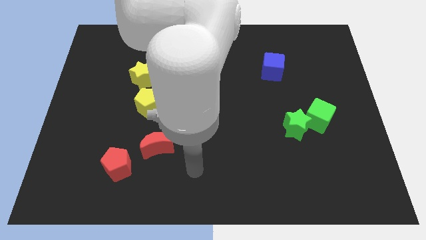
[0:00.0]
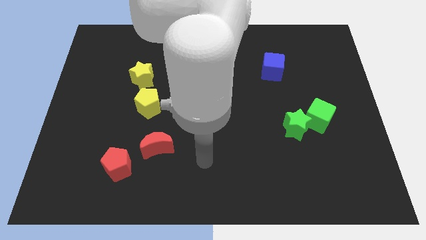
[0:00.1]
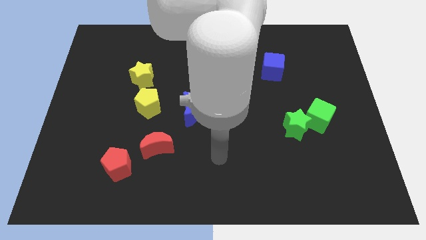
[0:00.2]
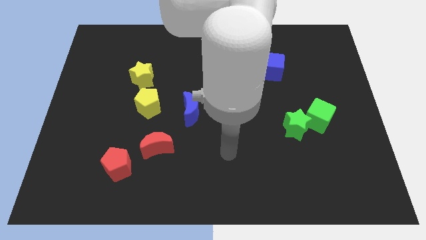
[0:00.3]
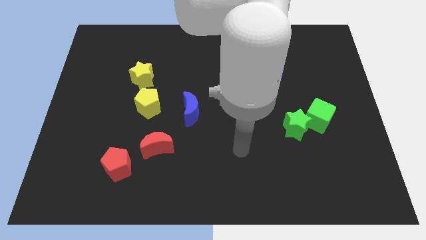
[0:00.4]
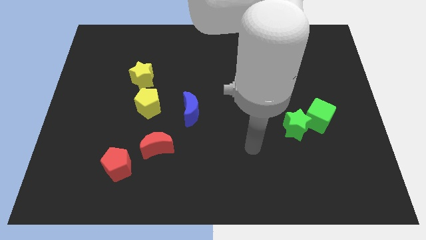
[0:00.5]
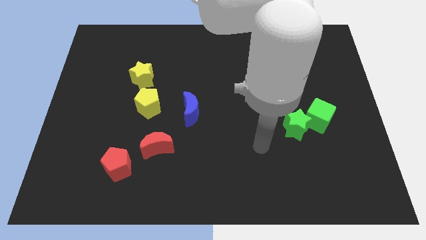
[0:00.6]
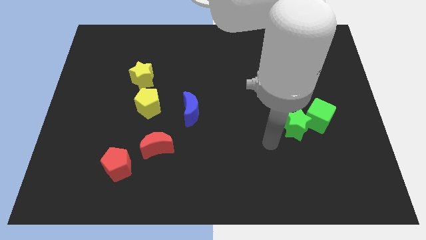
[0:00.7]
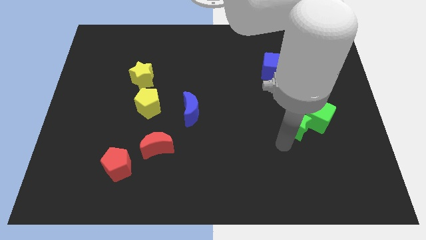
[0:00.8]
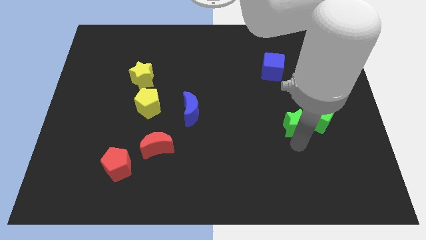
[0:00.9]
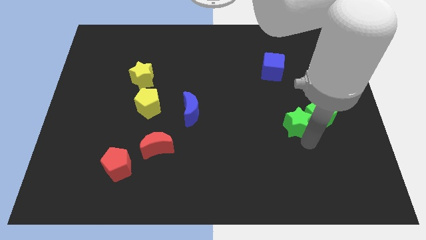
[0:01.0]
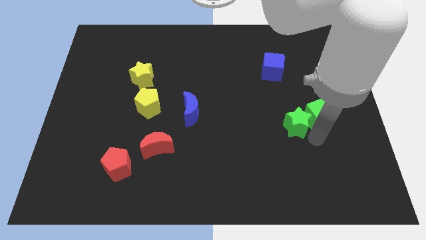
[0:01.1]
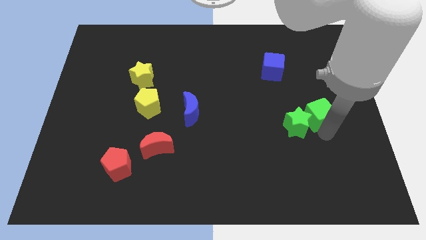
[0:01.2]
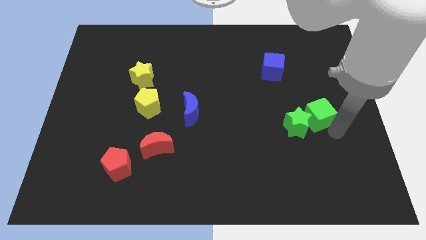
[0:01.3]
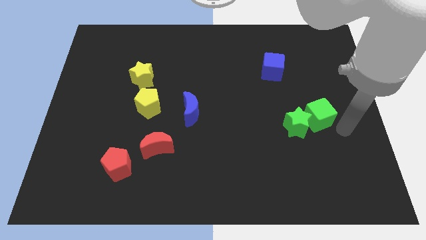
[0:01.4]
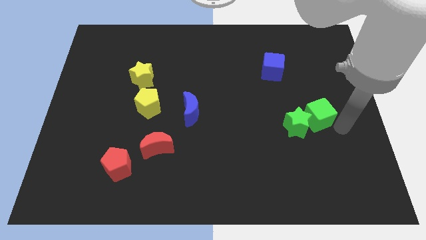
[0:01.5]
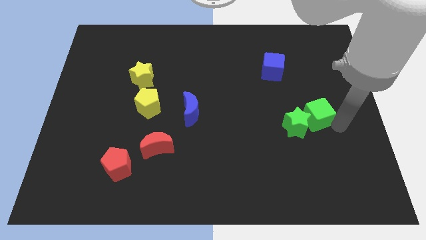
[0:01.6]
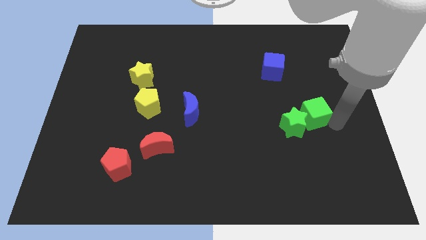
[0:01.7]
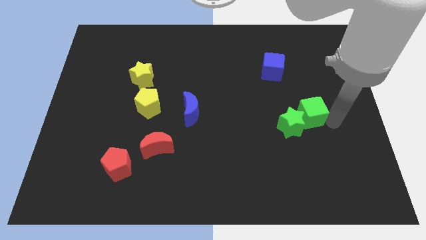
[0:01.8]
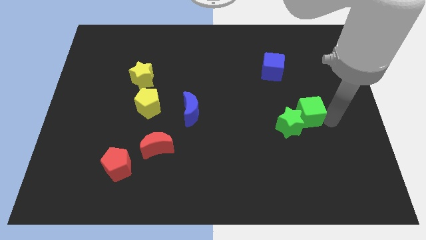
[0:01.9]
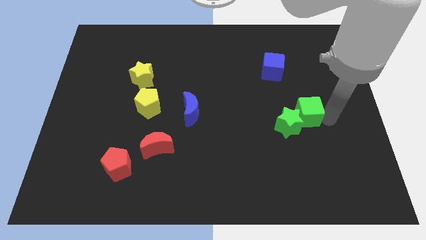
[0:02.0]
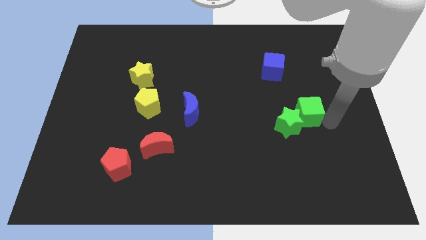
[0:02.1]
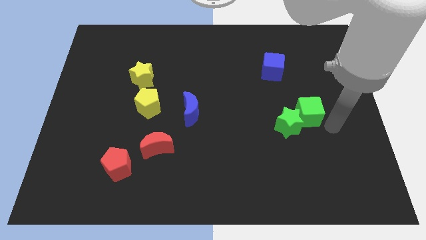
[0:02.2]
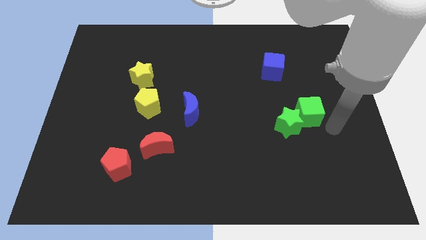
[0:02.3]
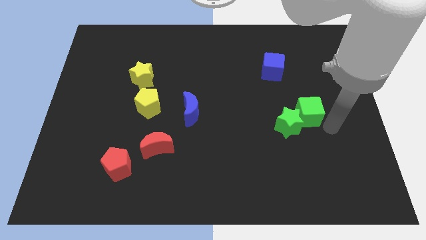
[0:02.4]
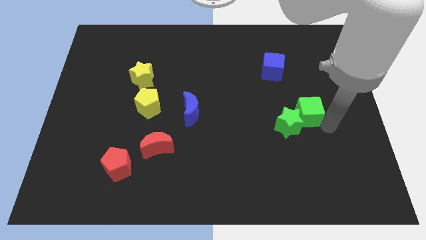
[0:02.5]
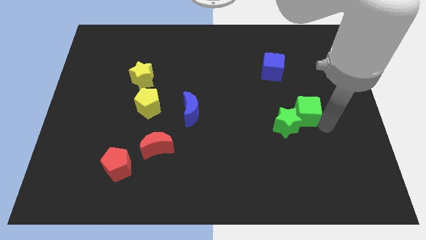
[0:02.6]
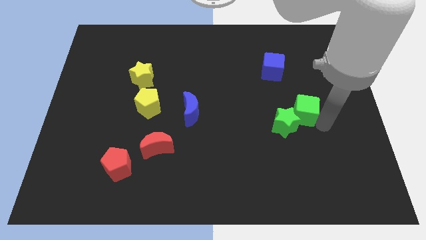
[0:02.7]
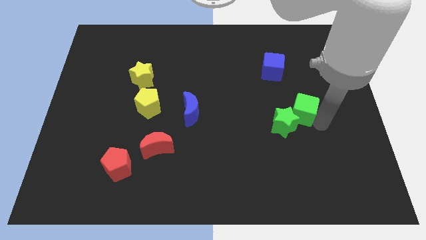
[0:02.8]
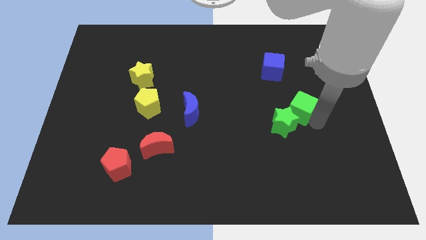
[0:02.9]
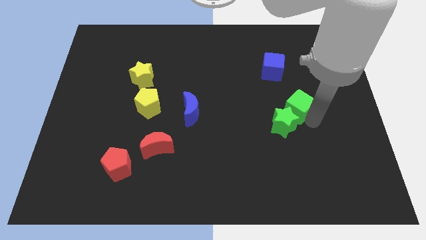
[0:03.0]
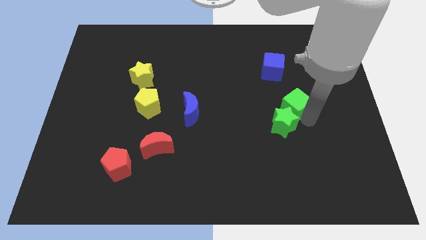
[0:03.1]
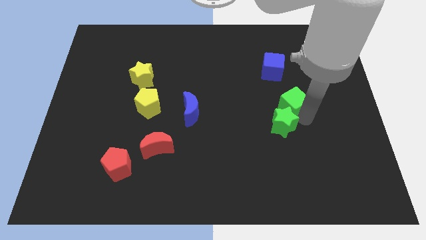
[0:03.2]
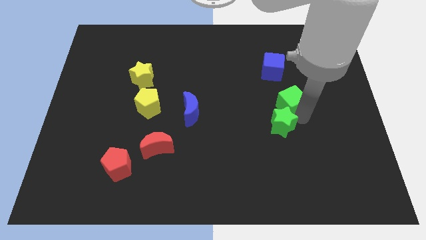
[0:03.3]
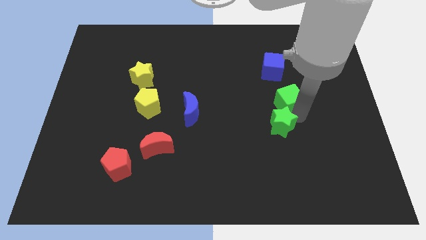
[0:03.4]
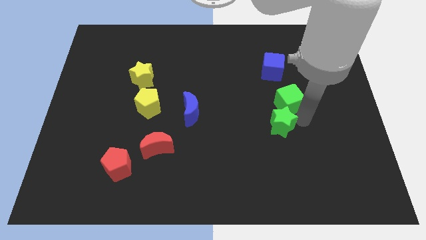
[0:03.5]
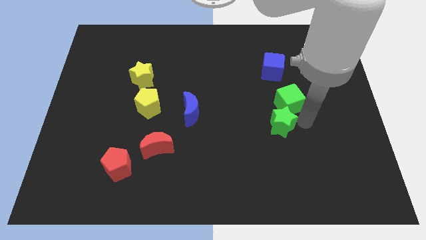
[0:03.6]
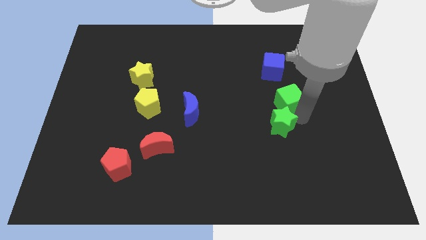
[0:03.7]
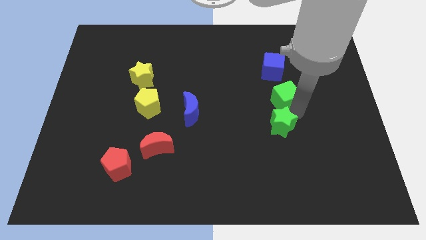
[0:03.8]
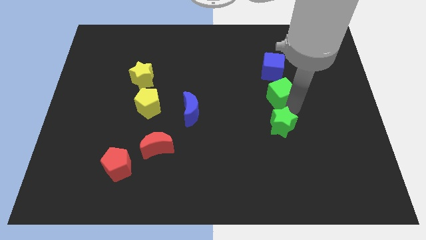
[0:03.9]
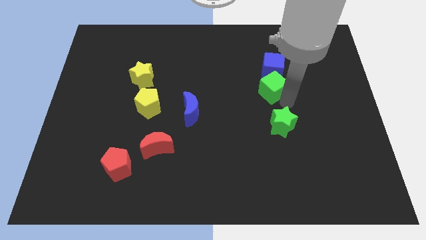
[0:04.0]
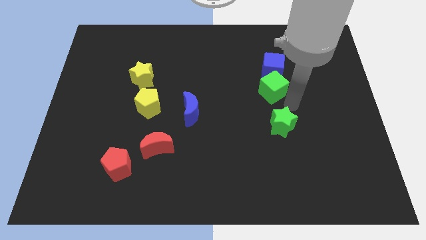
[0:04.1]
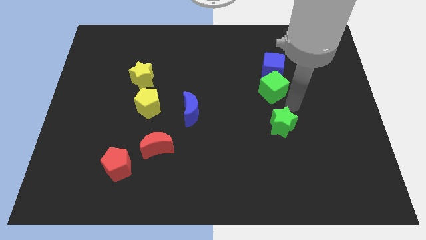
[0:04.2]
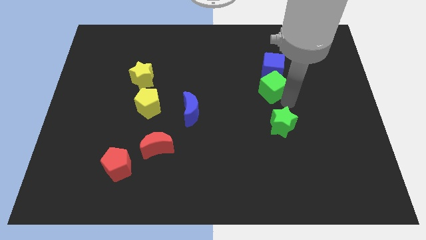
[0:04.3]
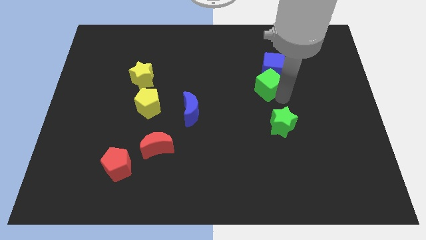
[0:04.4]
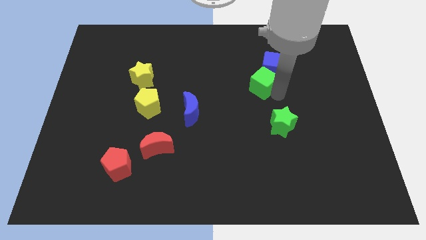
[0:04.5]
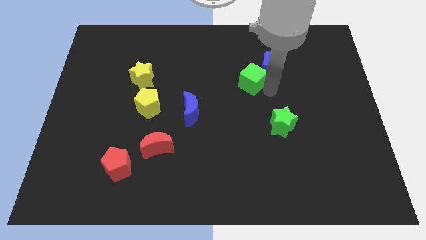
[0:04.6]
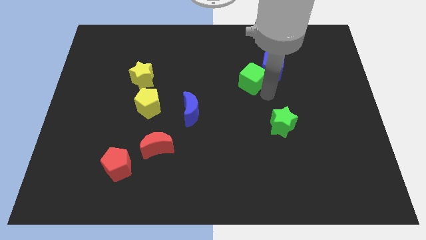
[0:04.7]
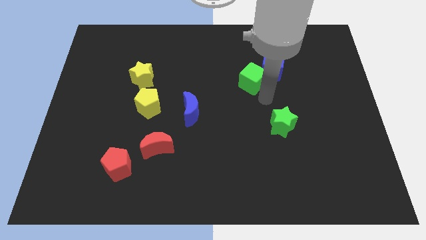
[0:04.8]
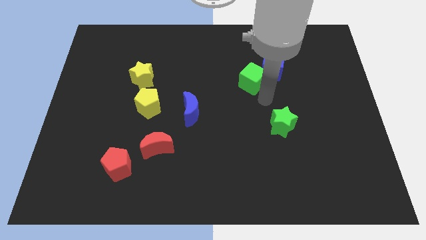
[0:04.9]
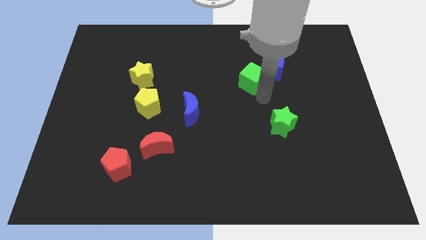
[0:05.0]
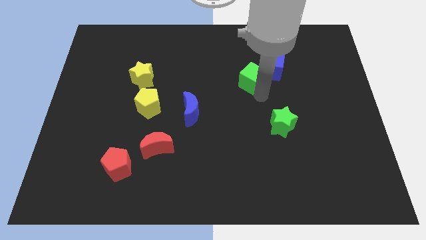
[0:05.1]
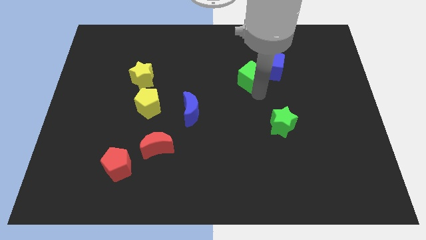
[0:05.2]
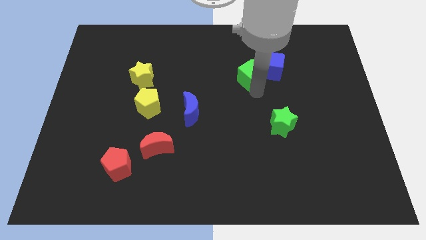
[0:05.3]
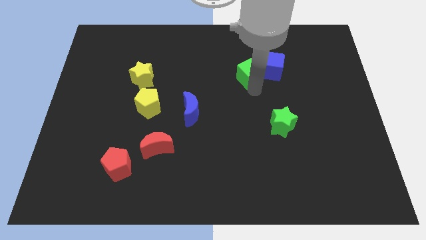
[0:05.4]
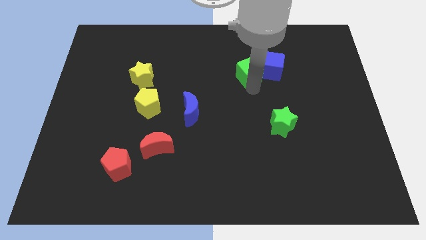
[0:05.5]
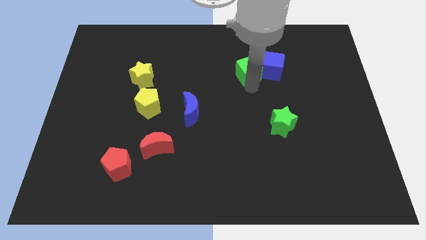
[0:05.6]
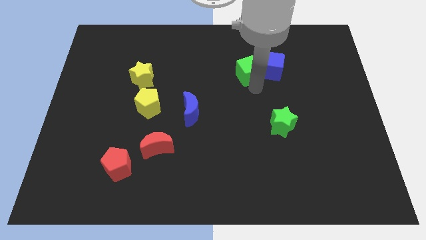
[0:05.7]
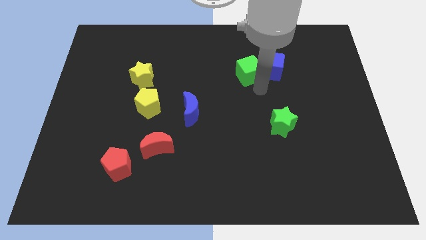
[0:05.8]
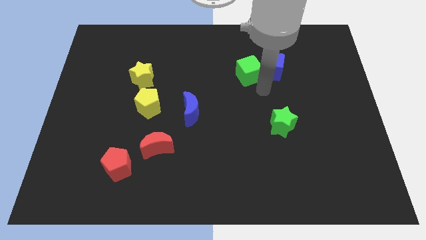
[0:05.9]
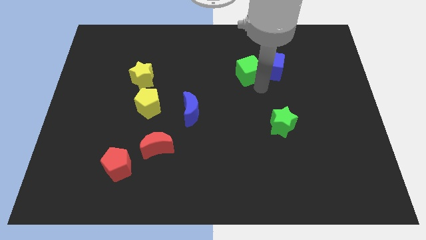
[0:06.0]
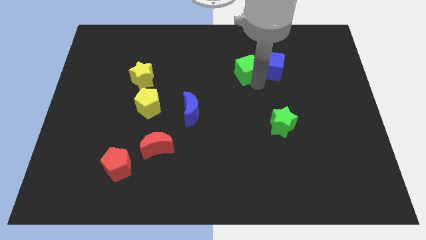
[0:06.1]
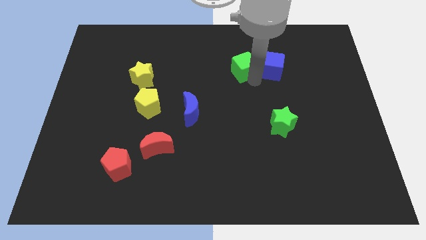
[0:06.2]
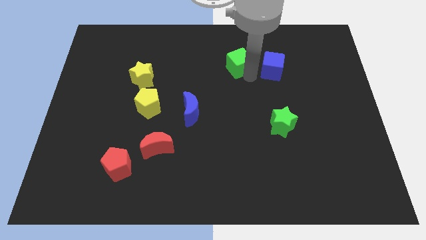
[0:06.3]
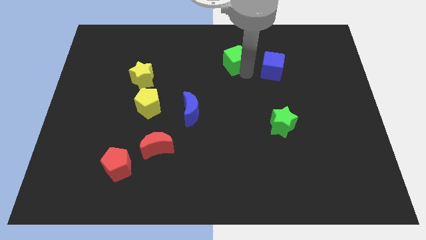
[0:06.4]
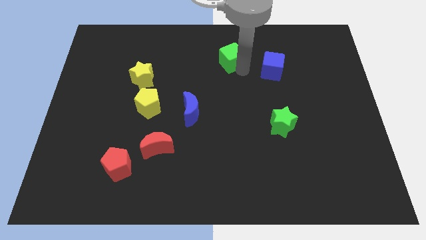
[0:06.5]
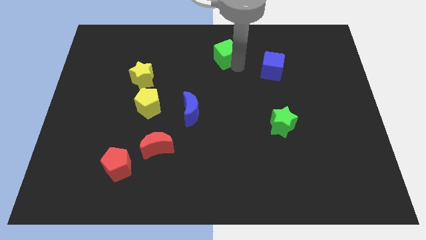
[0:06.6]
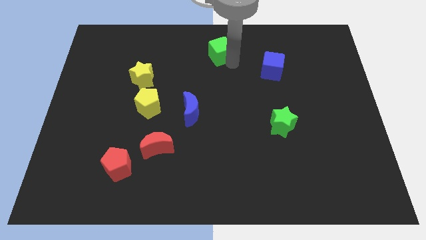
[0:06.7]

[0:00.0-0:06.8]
slide the green cube to the top side
